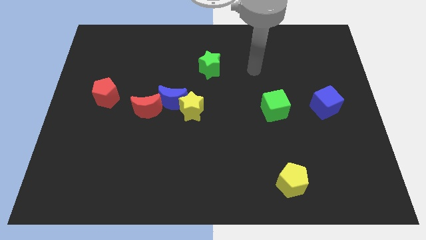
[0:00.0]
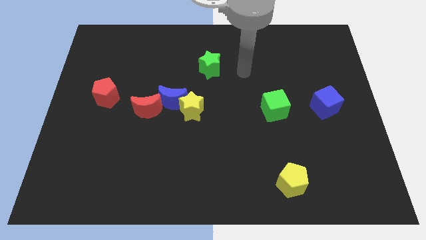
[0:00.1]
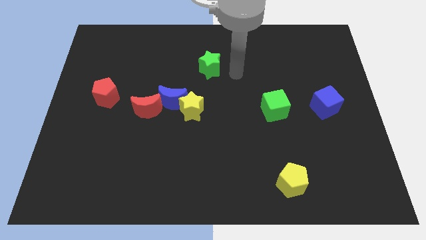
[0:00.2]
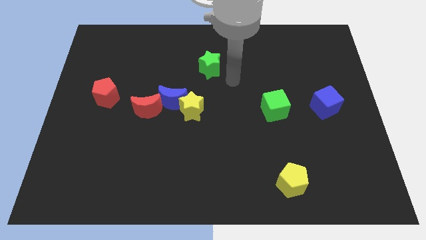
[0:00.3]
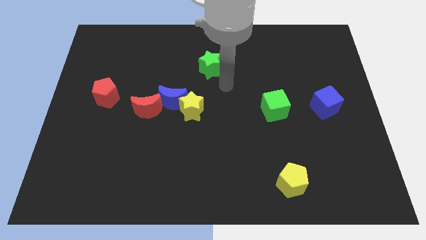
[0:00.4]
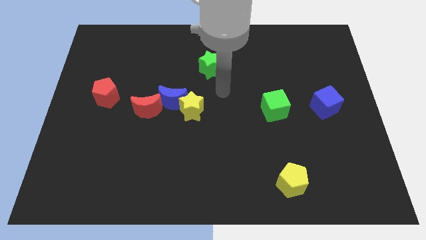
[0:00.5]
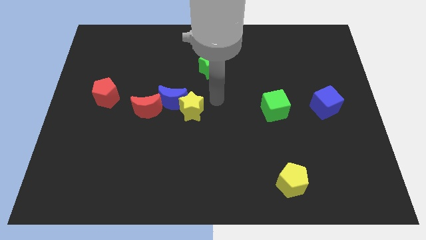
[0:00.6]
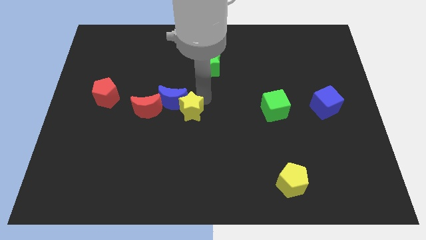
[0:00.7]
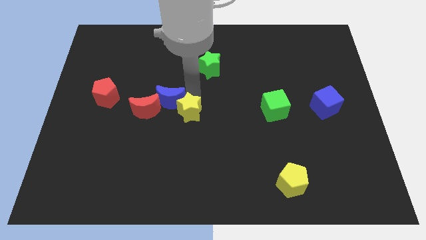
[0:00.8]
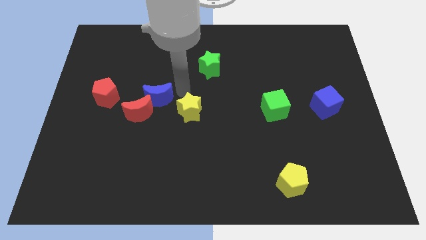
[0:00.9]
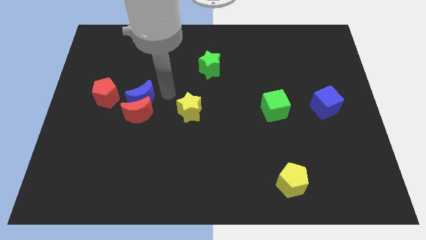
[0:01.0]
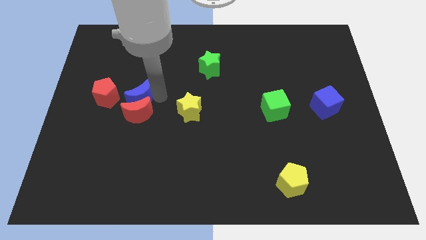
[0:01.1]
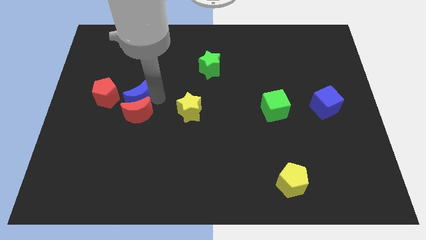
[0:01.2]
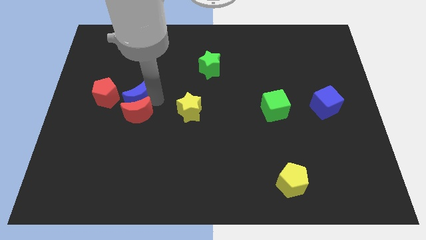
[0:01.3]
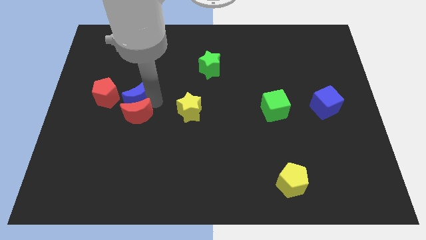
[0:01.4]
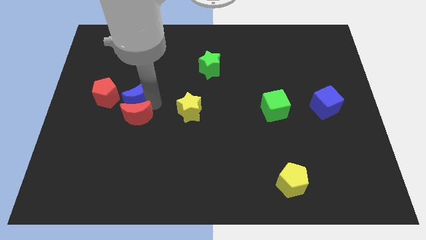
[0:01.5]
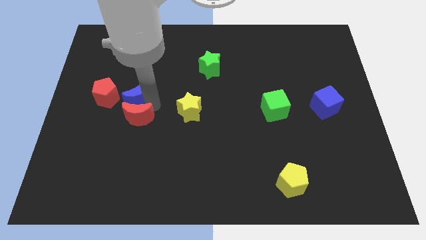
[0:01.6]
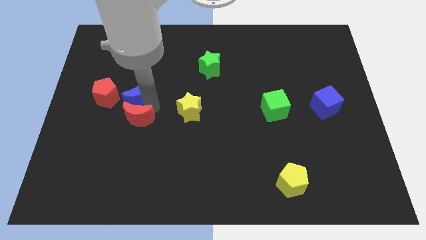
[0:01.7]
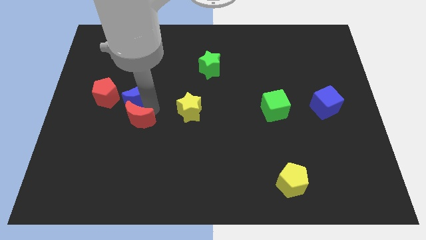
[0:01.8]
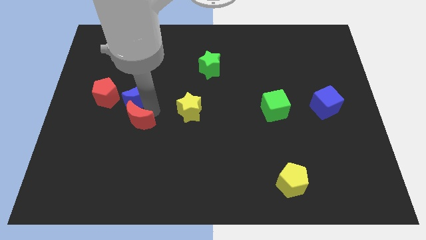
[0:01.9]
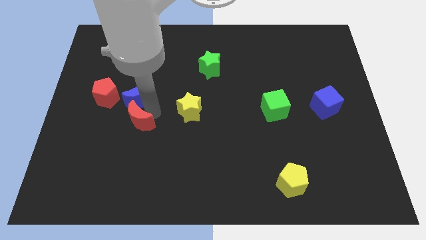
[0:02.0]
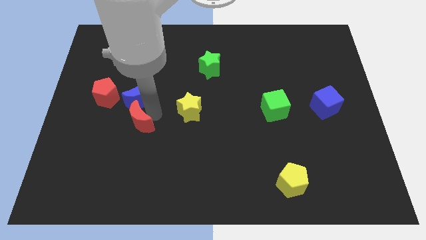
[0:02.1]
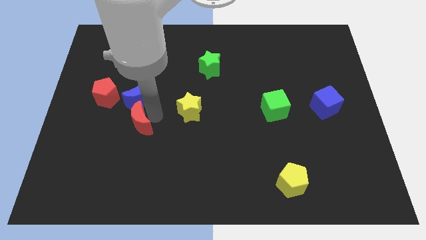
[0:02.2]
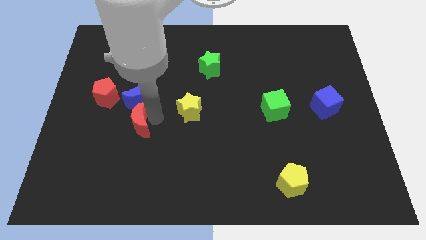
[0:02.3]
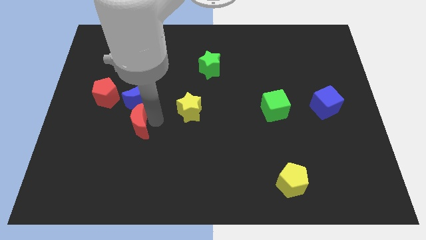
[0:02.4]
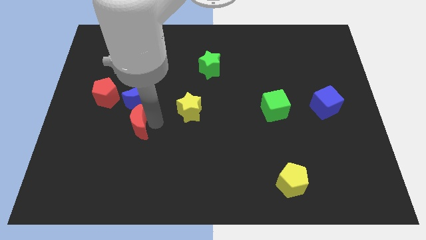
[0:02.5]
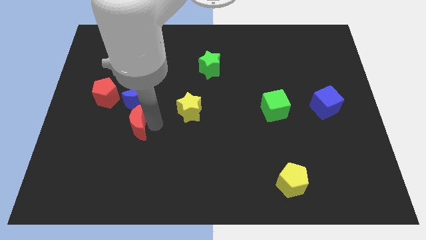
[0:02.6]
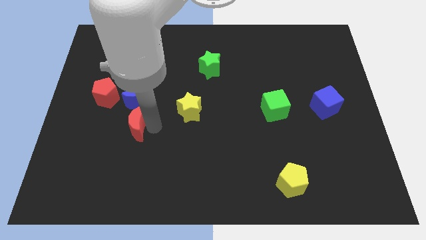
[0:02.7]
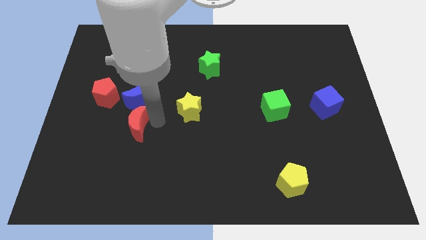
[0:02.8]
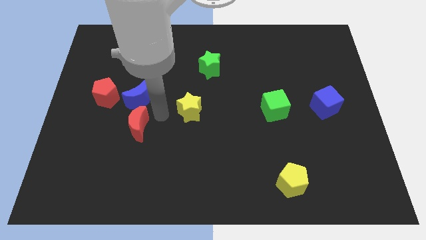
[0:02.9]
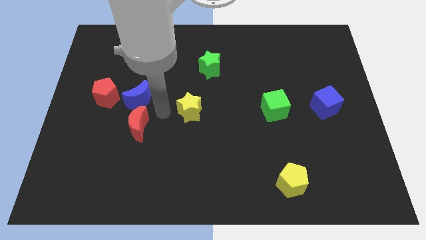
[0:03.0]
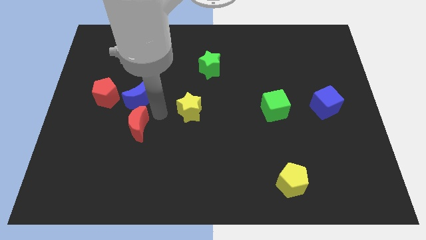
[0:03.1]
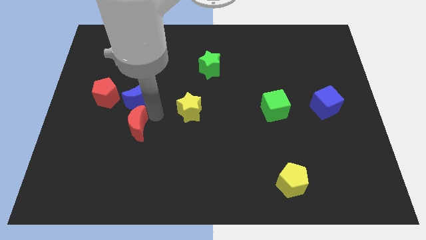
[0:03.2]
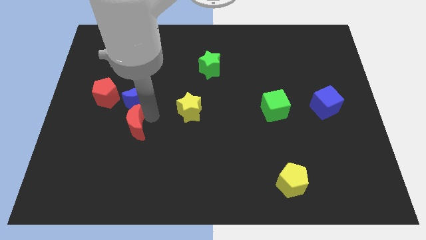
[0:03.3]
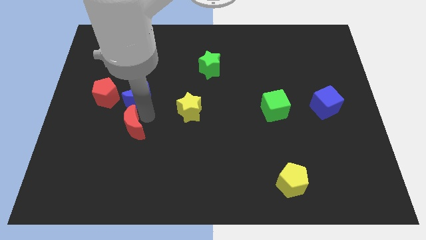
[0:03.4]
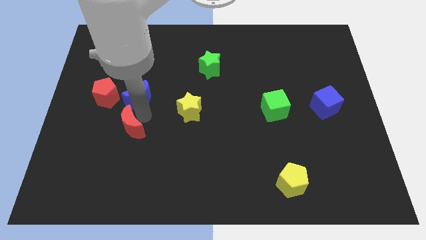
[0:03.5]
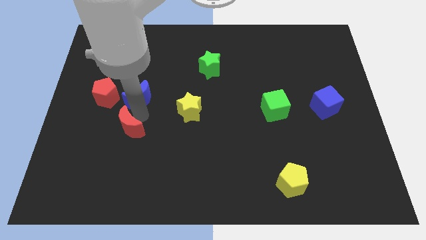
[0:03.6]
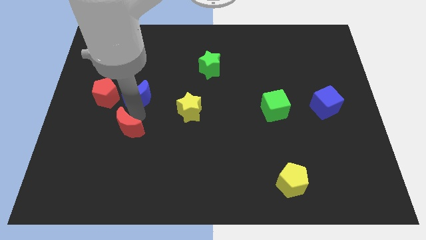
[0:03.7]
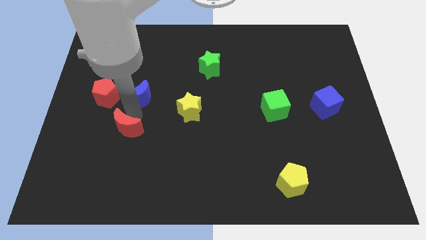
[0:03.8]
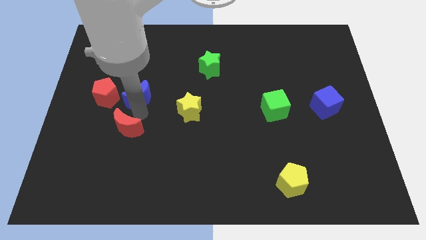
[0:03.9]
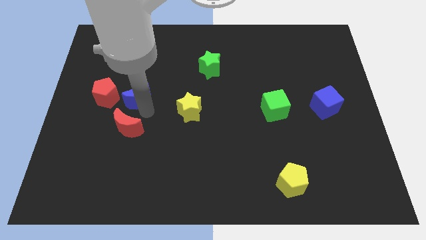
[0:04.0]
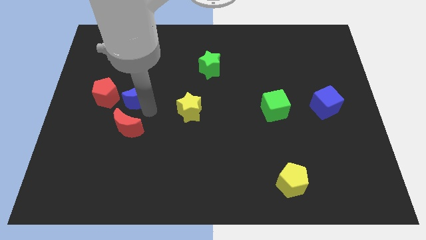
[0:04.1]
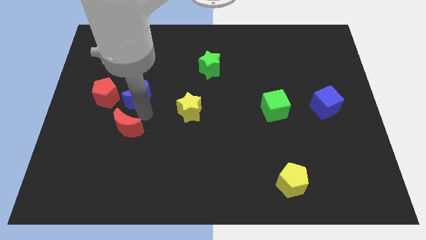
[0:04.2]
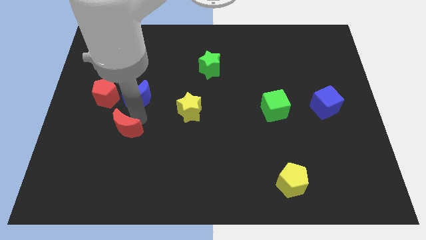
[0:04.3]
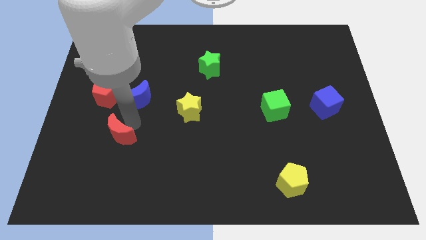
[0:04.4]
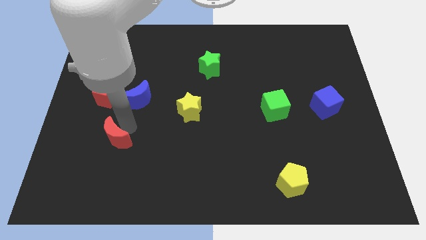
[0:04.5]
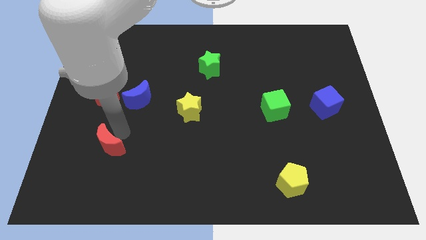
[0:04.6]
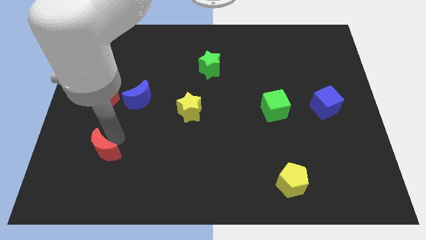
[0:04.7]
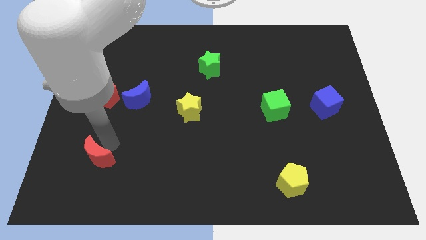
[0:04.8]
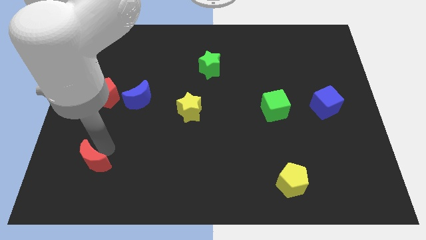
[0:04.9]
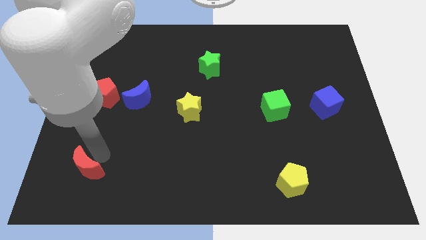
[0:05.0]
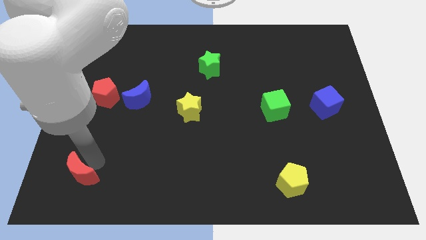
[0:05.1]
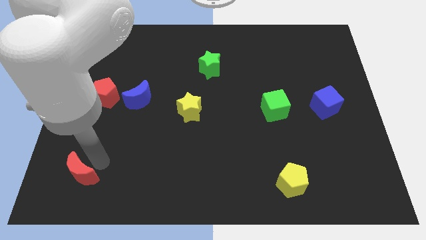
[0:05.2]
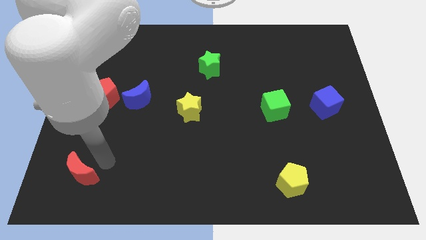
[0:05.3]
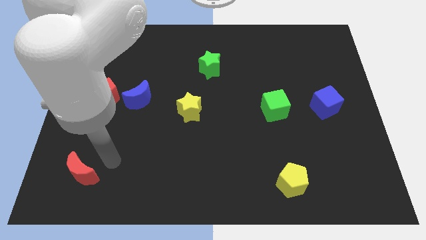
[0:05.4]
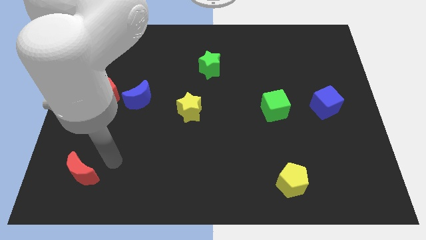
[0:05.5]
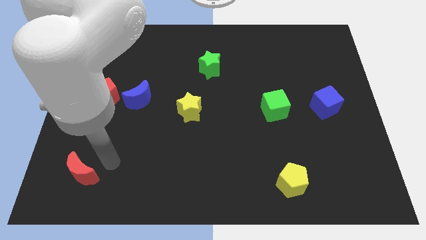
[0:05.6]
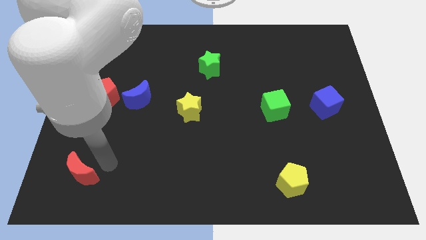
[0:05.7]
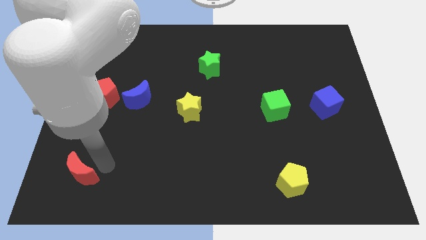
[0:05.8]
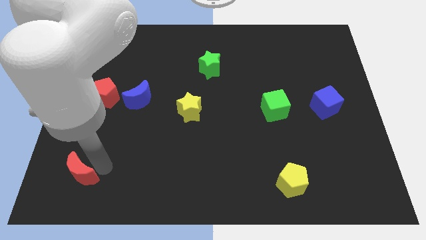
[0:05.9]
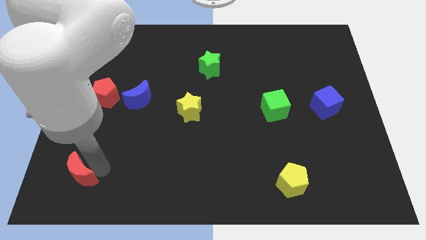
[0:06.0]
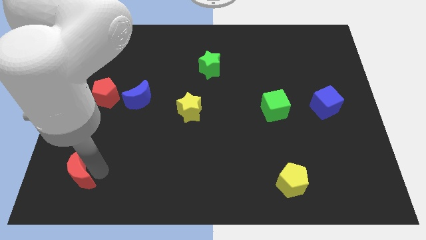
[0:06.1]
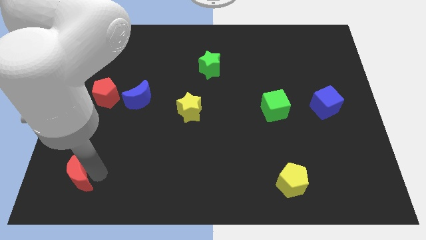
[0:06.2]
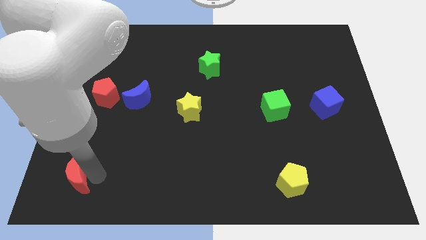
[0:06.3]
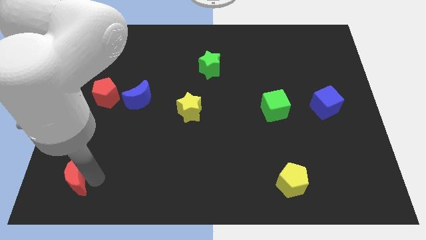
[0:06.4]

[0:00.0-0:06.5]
move the red moon to the bottom left

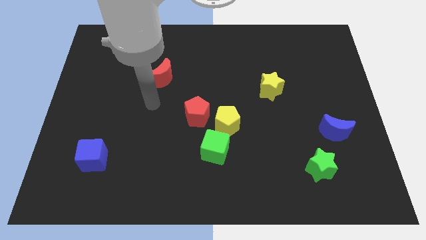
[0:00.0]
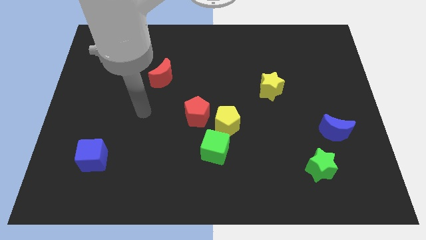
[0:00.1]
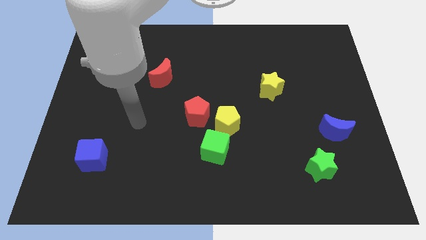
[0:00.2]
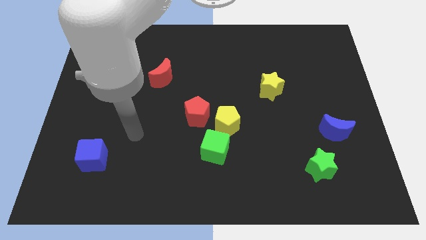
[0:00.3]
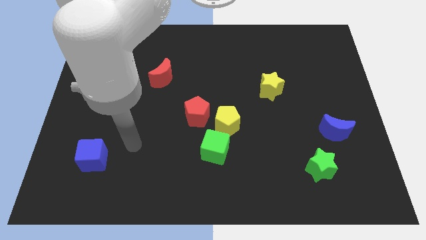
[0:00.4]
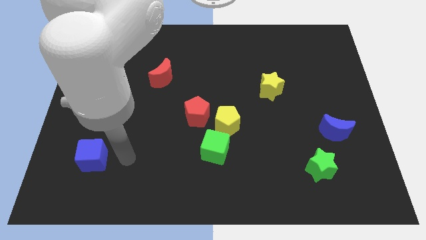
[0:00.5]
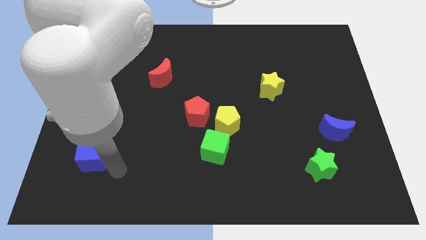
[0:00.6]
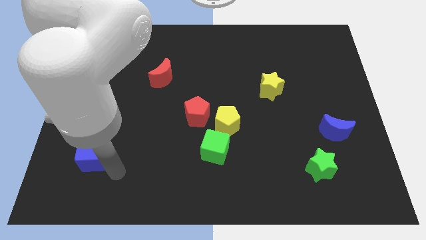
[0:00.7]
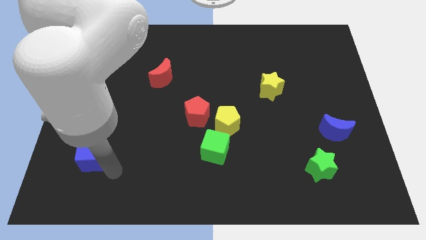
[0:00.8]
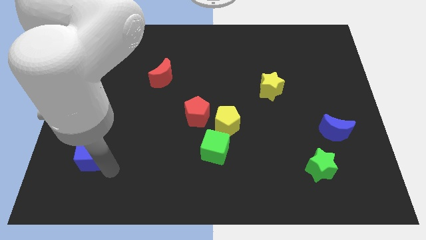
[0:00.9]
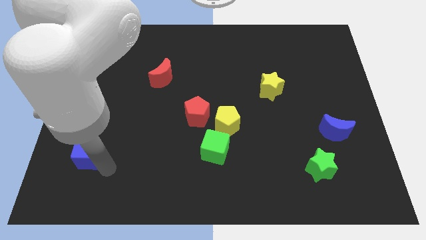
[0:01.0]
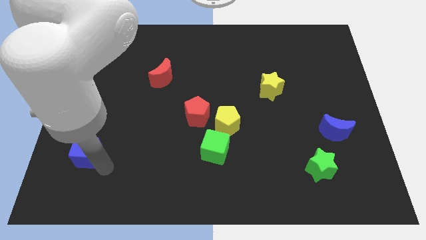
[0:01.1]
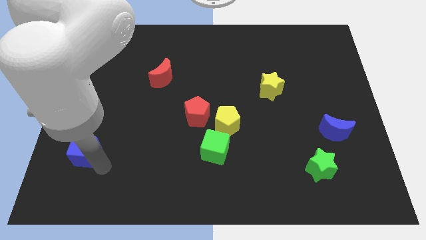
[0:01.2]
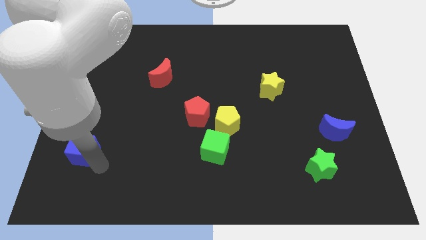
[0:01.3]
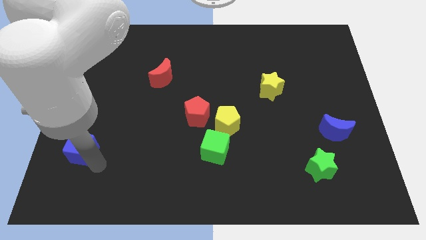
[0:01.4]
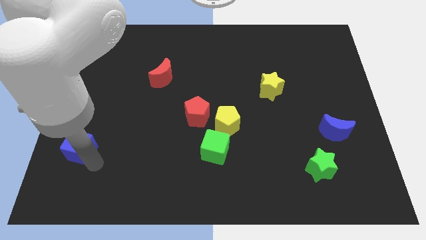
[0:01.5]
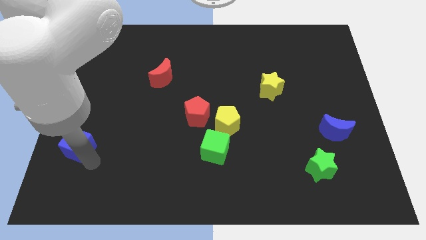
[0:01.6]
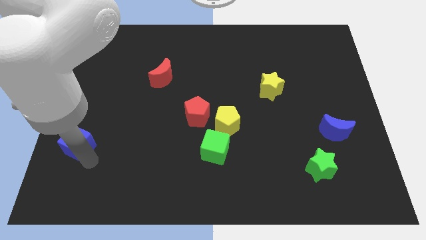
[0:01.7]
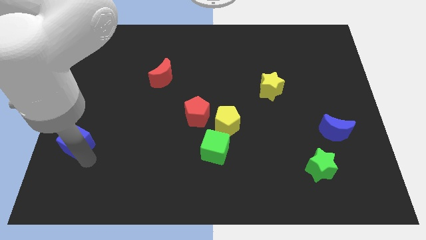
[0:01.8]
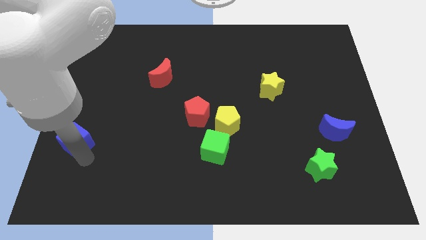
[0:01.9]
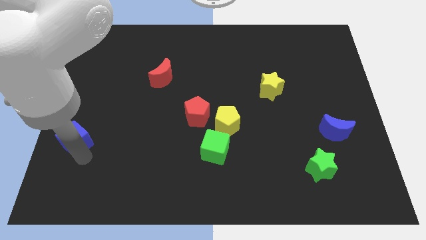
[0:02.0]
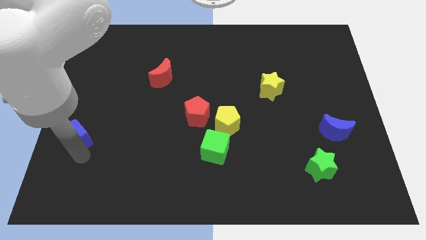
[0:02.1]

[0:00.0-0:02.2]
put the blue cube to the left side of the board
